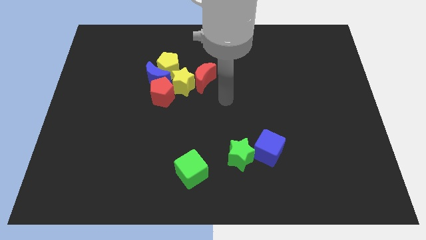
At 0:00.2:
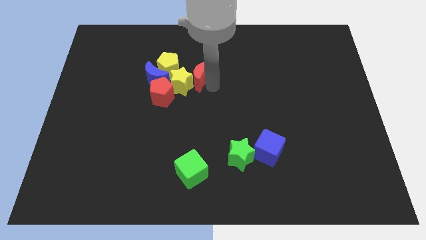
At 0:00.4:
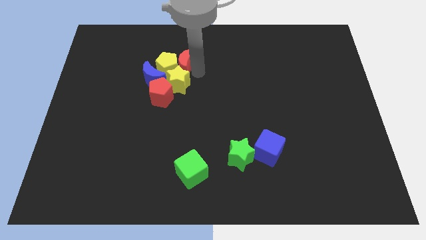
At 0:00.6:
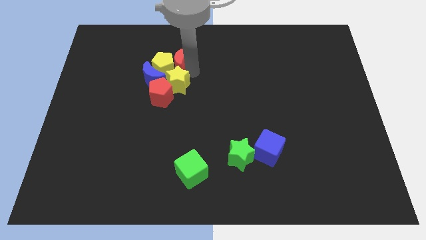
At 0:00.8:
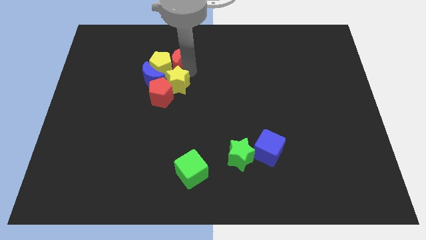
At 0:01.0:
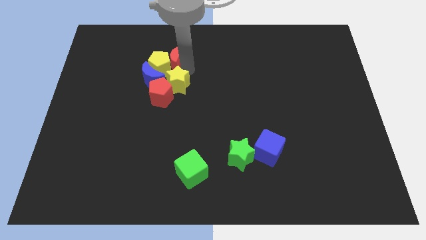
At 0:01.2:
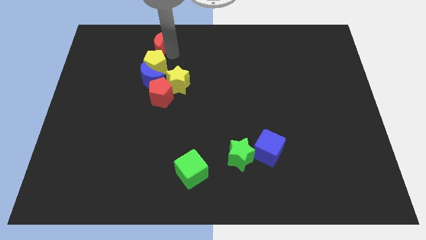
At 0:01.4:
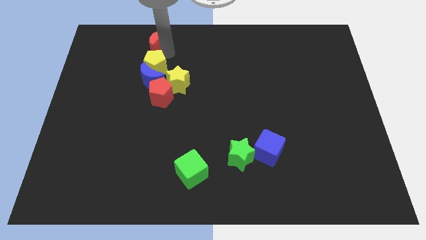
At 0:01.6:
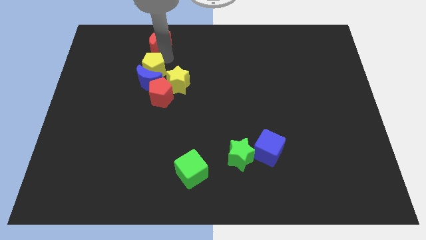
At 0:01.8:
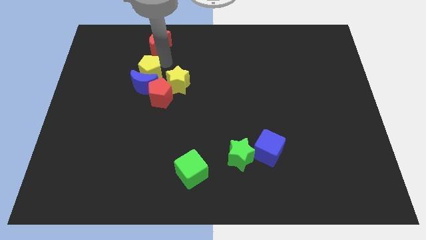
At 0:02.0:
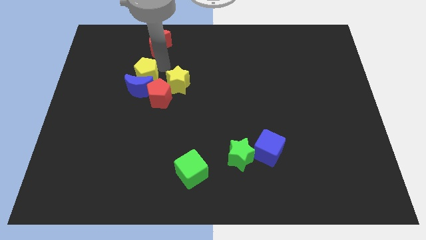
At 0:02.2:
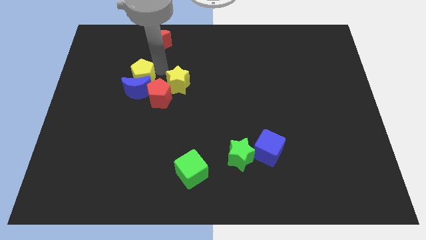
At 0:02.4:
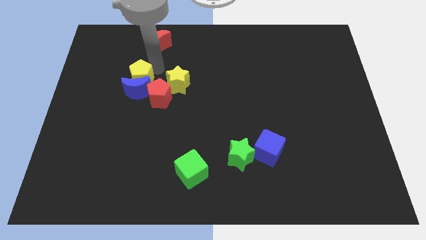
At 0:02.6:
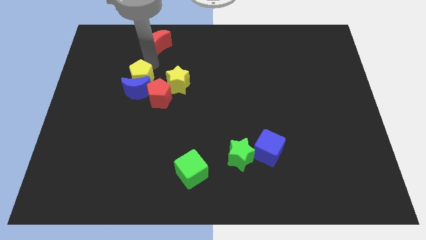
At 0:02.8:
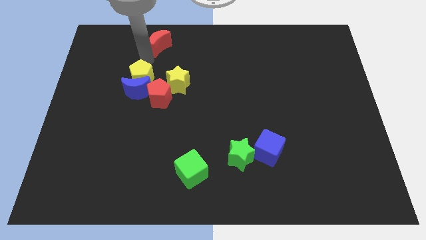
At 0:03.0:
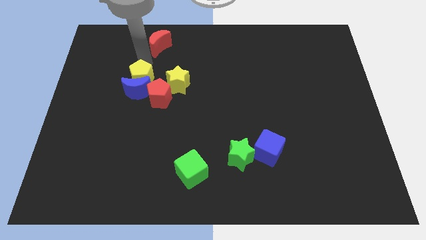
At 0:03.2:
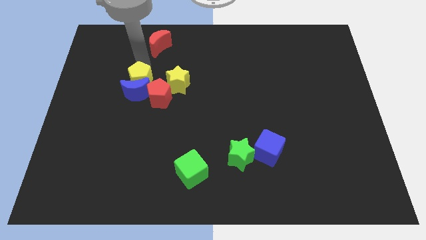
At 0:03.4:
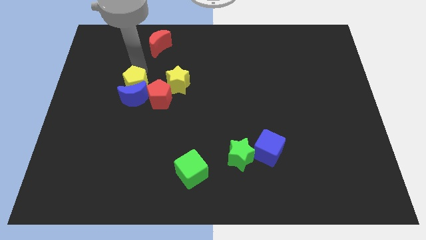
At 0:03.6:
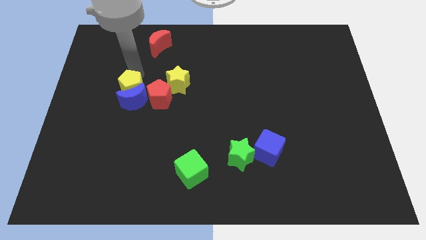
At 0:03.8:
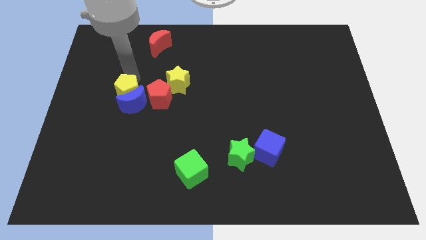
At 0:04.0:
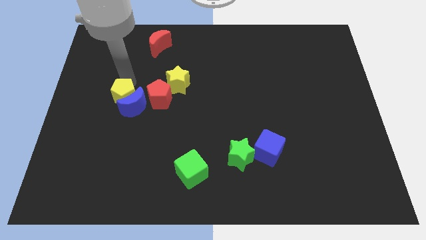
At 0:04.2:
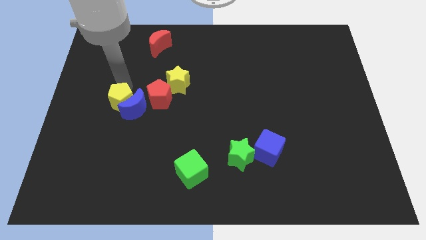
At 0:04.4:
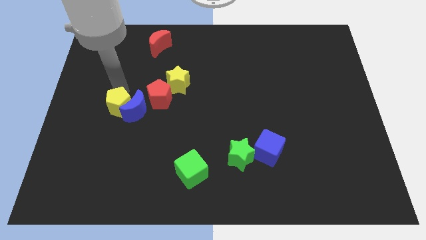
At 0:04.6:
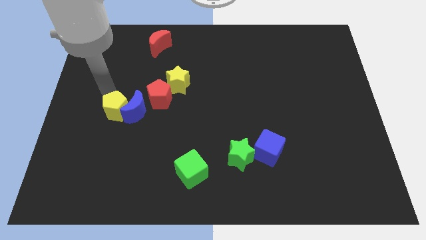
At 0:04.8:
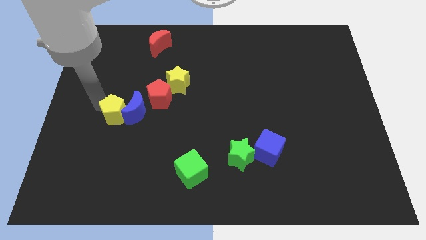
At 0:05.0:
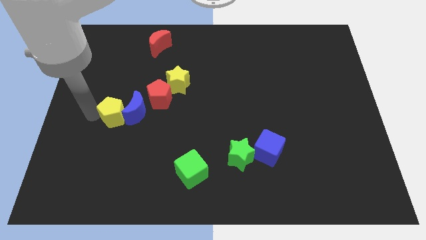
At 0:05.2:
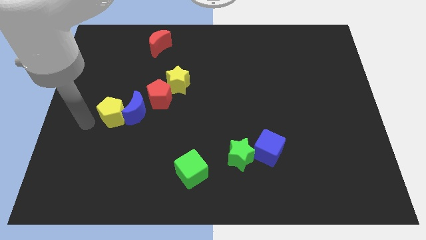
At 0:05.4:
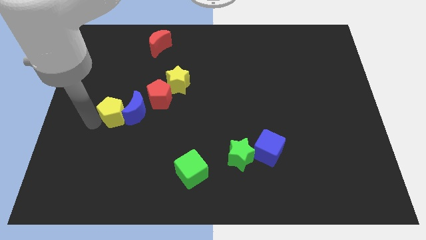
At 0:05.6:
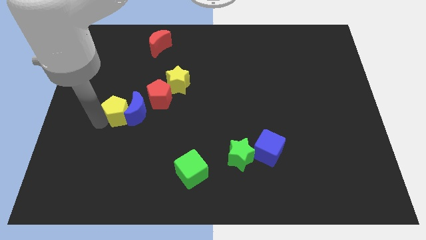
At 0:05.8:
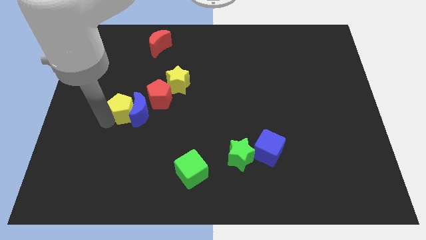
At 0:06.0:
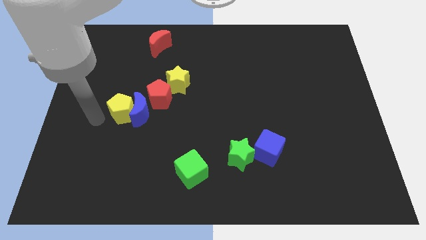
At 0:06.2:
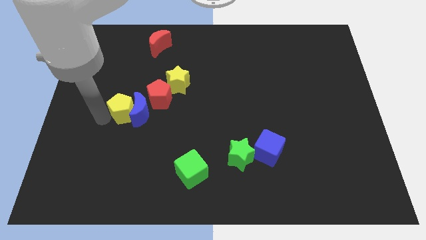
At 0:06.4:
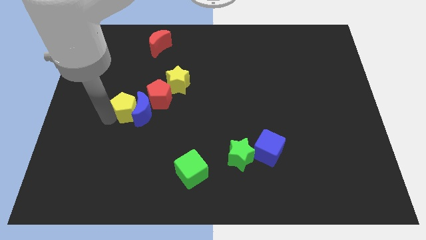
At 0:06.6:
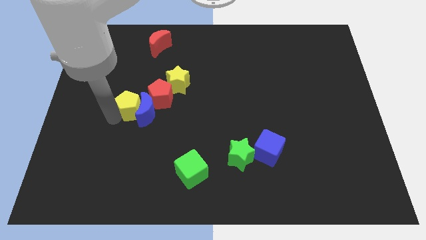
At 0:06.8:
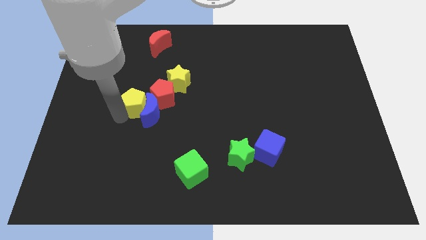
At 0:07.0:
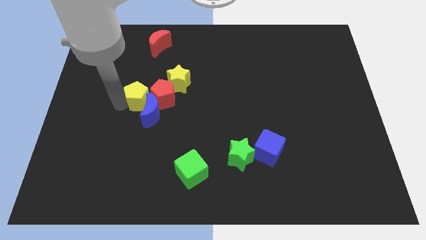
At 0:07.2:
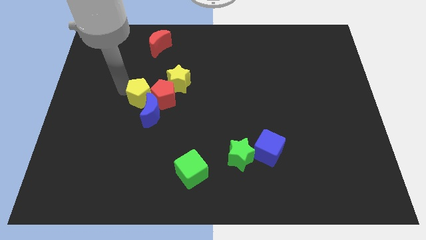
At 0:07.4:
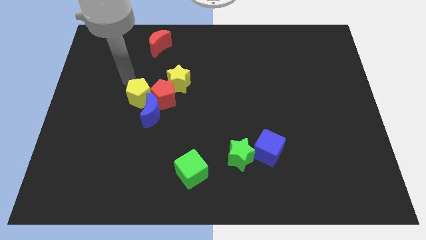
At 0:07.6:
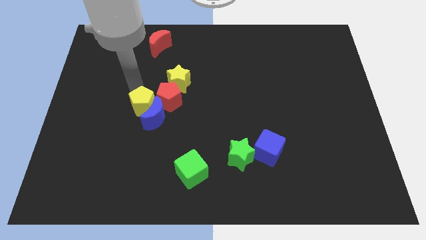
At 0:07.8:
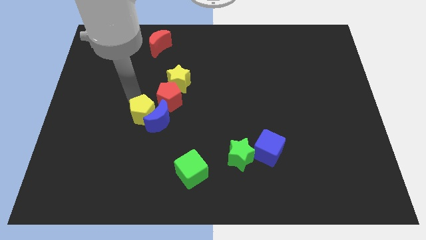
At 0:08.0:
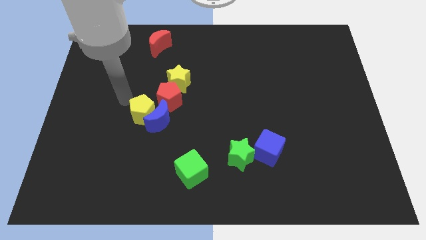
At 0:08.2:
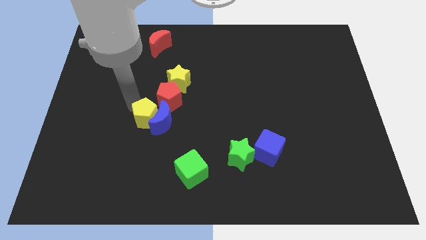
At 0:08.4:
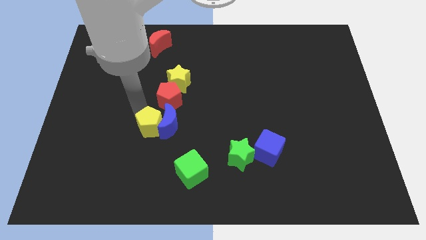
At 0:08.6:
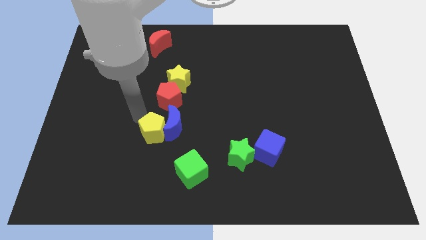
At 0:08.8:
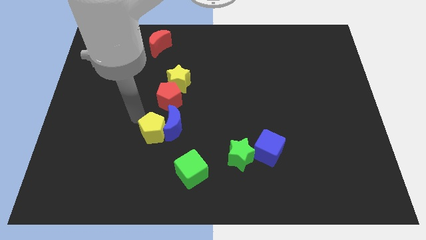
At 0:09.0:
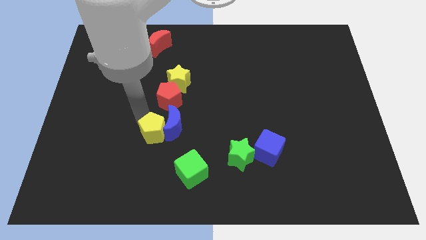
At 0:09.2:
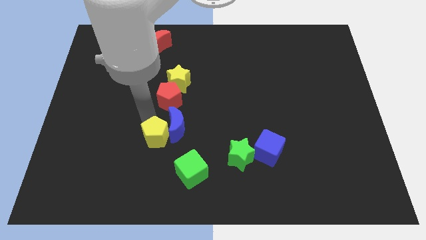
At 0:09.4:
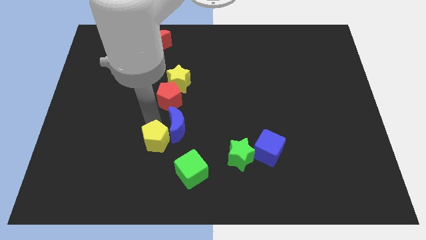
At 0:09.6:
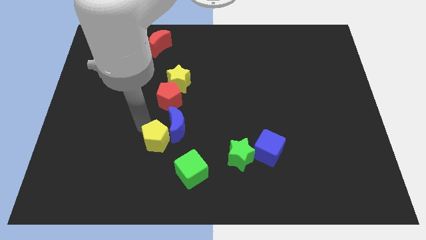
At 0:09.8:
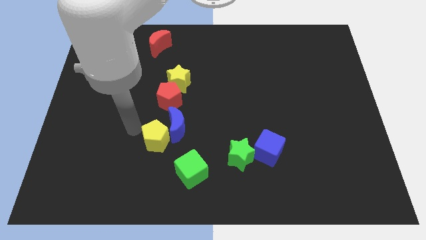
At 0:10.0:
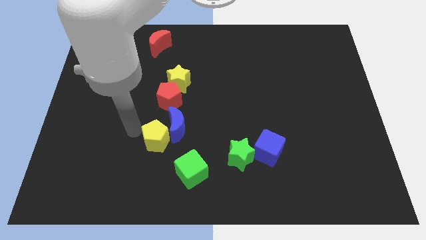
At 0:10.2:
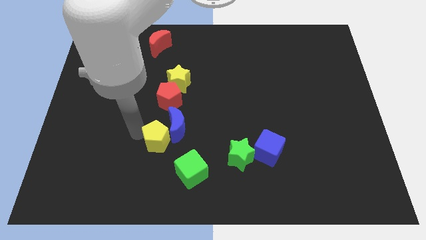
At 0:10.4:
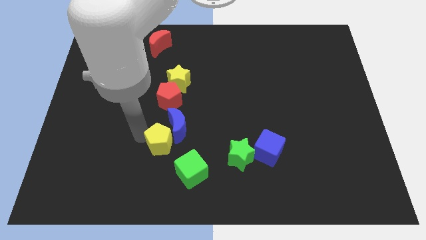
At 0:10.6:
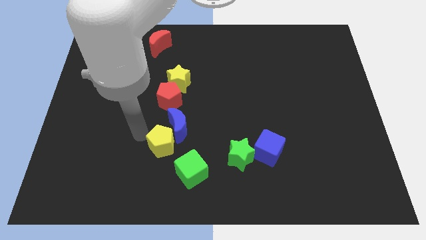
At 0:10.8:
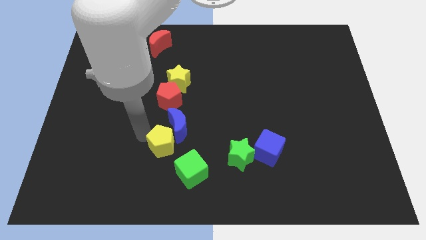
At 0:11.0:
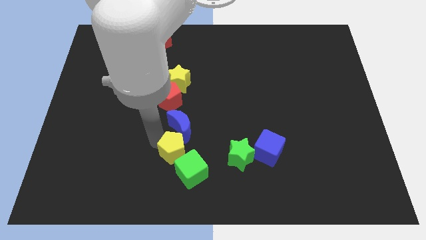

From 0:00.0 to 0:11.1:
put the yellow pentagon just left of the green star

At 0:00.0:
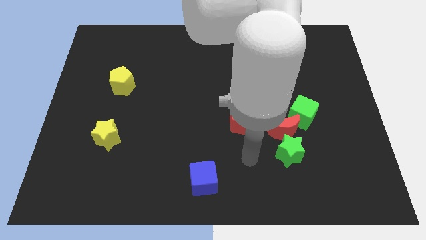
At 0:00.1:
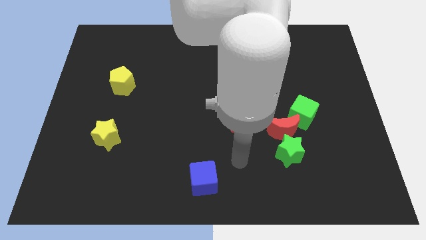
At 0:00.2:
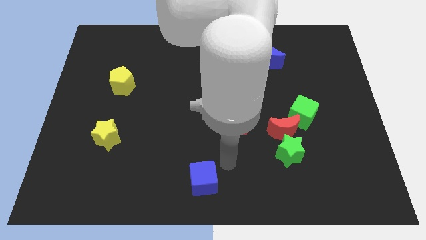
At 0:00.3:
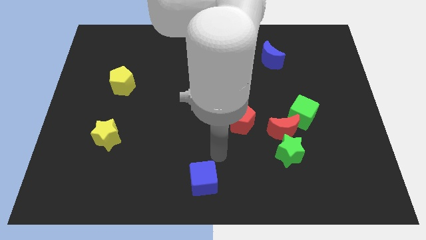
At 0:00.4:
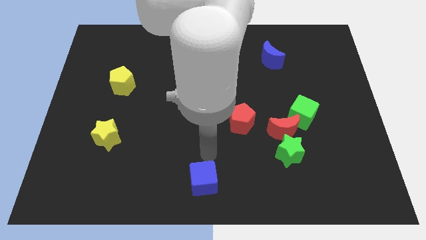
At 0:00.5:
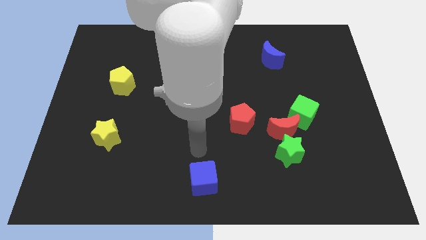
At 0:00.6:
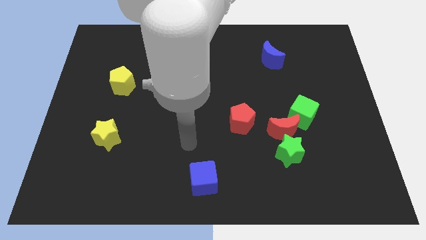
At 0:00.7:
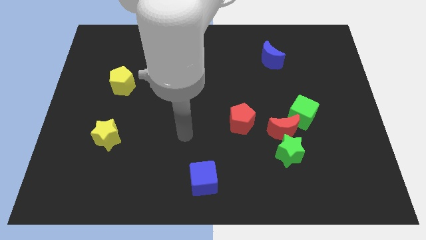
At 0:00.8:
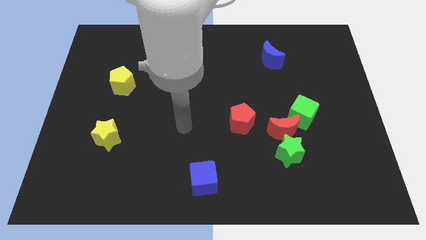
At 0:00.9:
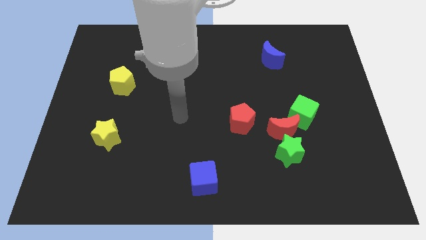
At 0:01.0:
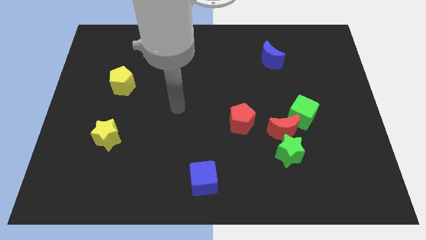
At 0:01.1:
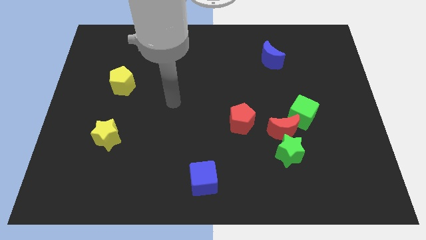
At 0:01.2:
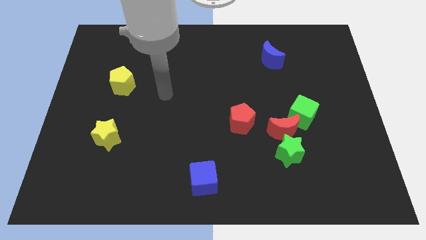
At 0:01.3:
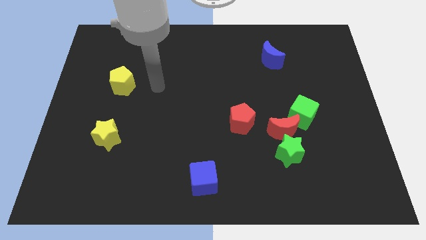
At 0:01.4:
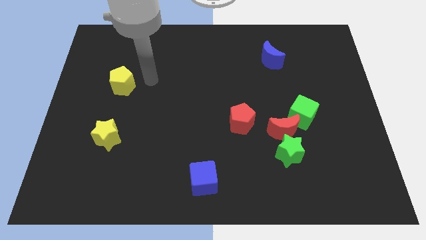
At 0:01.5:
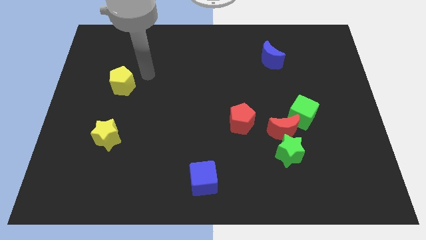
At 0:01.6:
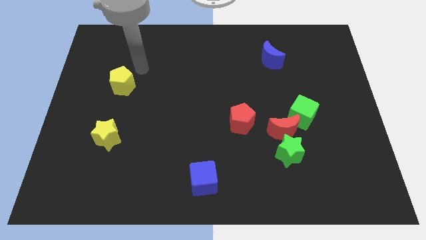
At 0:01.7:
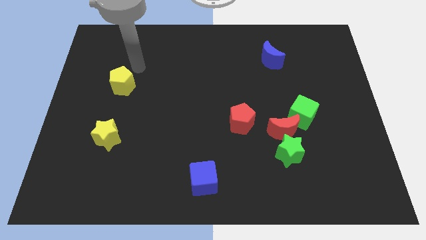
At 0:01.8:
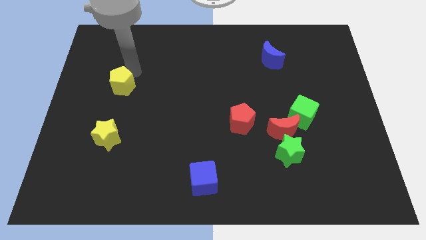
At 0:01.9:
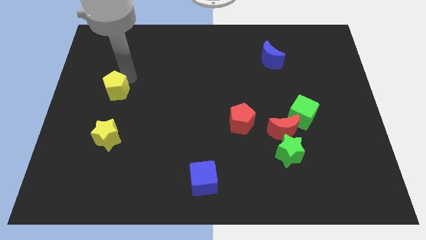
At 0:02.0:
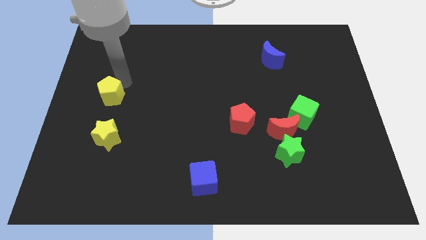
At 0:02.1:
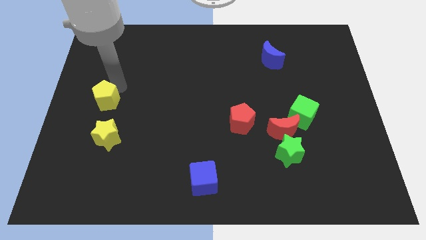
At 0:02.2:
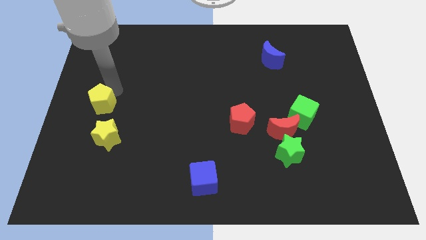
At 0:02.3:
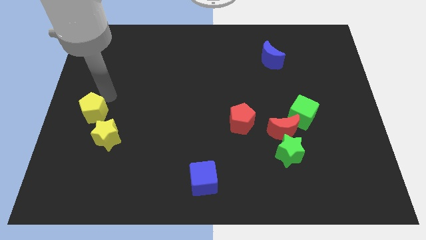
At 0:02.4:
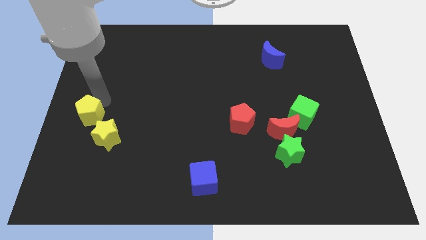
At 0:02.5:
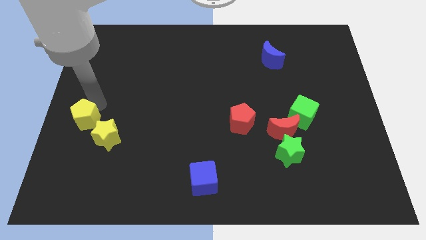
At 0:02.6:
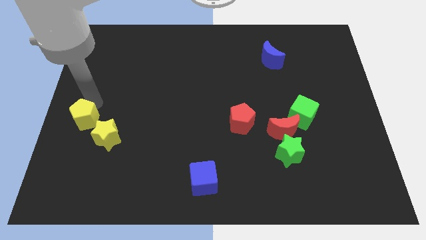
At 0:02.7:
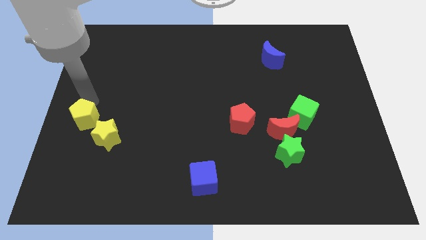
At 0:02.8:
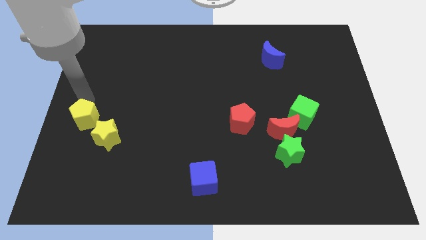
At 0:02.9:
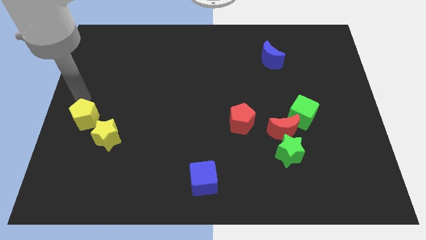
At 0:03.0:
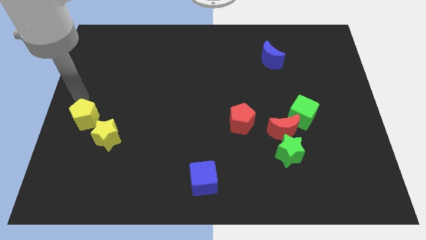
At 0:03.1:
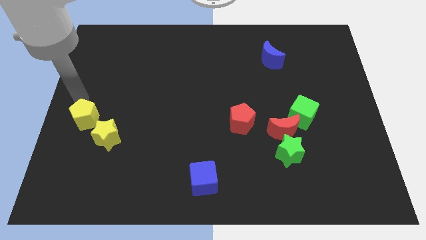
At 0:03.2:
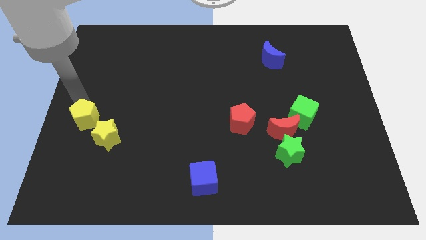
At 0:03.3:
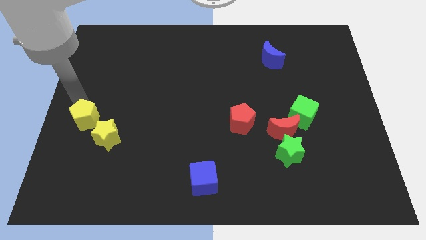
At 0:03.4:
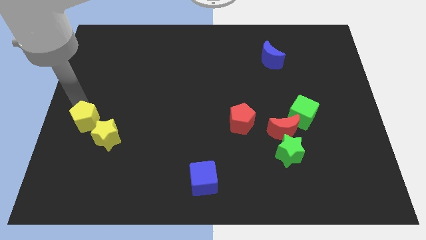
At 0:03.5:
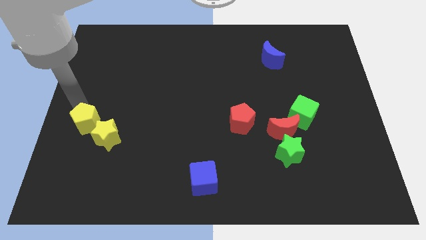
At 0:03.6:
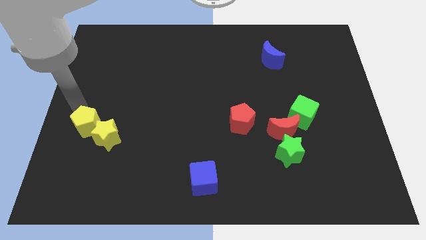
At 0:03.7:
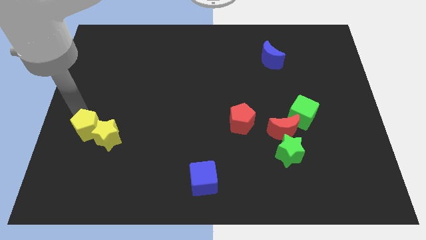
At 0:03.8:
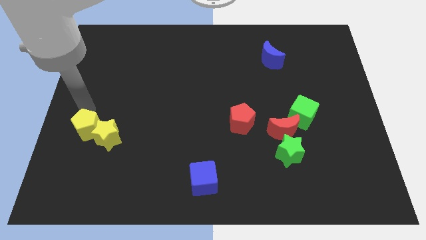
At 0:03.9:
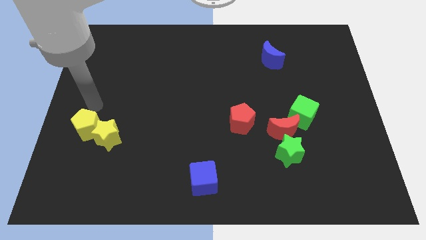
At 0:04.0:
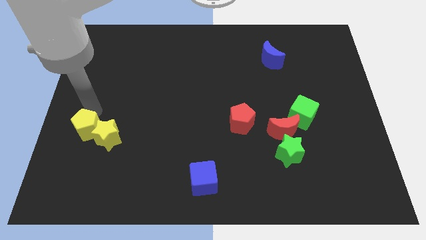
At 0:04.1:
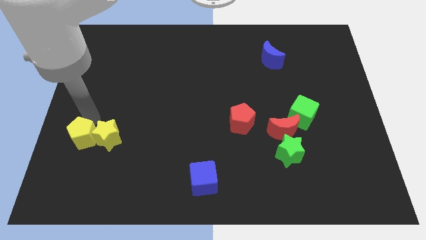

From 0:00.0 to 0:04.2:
slide the yellow pentagon to the bottom left side of the yellow star
